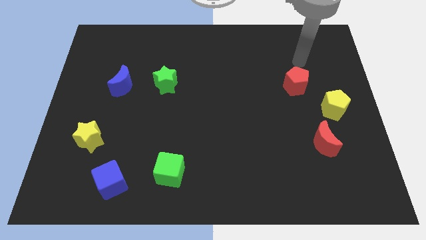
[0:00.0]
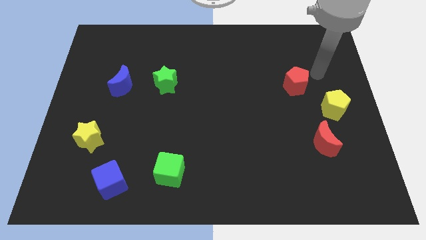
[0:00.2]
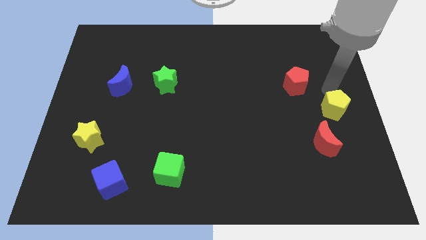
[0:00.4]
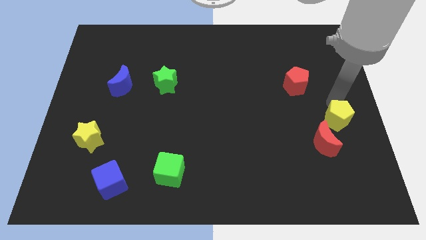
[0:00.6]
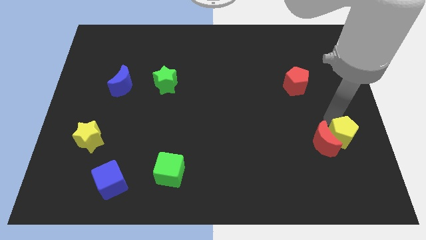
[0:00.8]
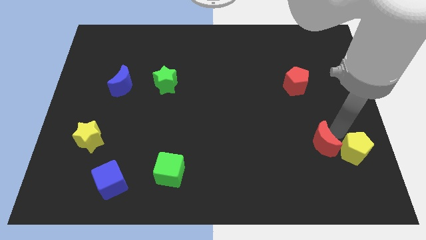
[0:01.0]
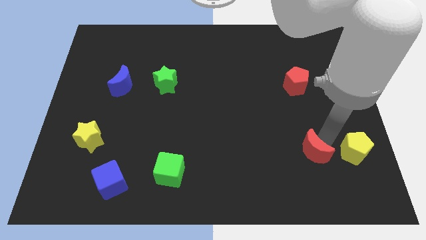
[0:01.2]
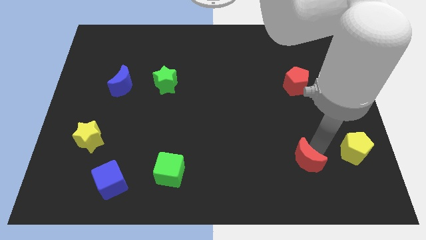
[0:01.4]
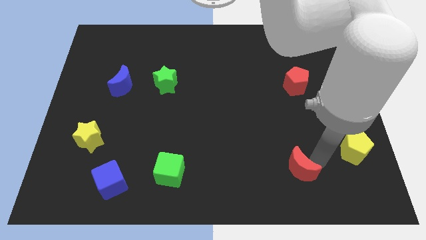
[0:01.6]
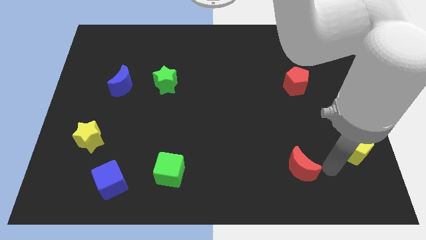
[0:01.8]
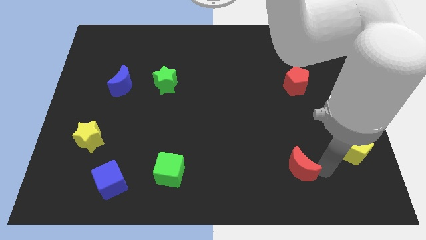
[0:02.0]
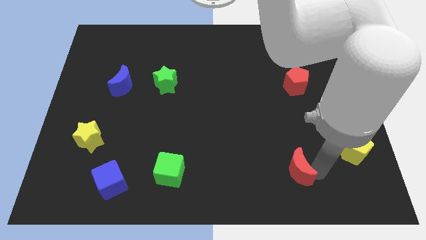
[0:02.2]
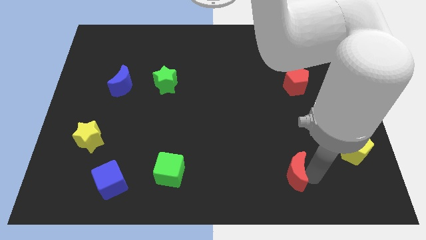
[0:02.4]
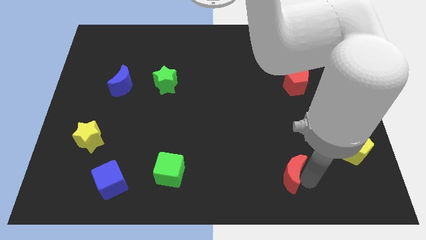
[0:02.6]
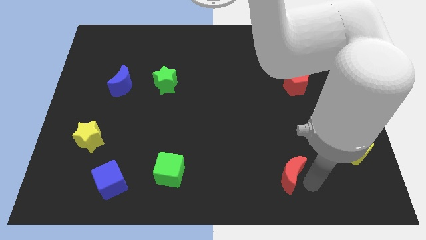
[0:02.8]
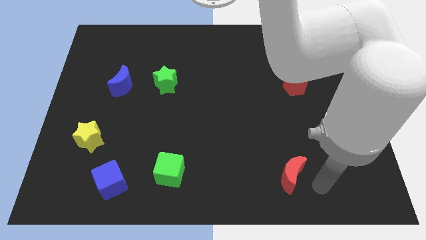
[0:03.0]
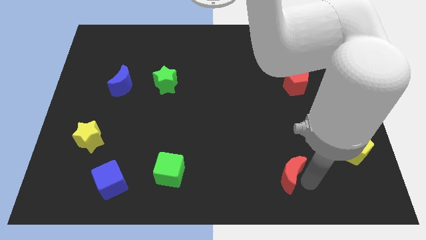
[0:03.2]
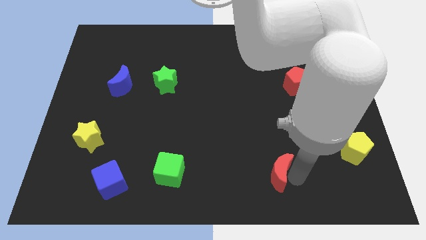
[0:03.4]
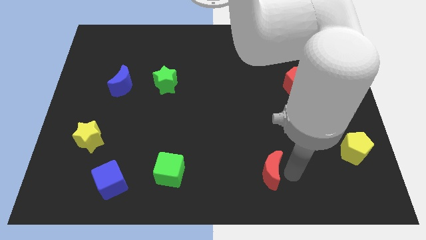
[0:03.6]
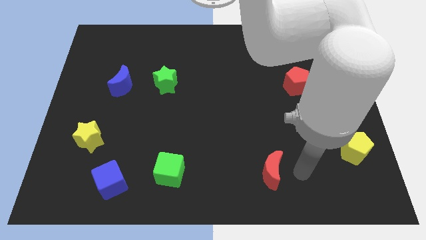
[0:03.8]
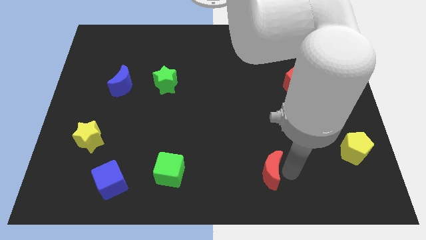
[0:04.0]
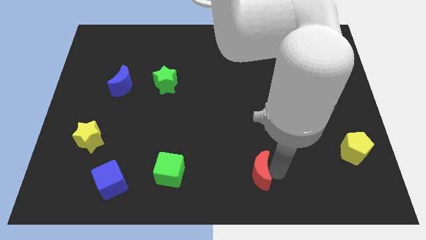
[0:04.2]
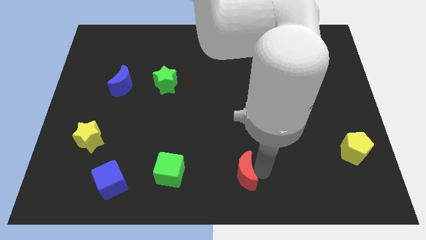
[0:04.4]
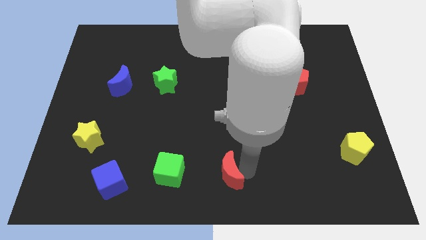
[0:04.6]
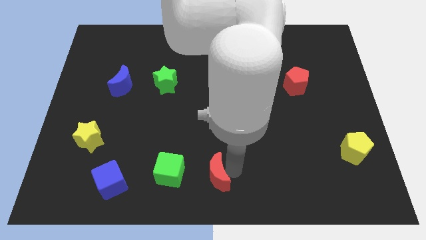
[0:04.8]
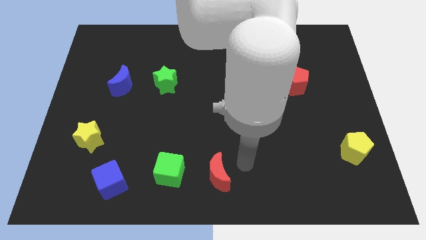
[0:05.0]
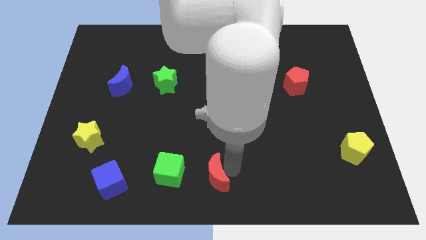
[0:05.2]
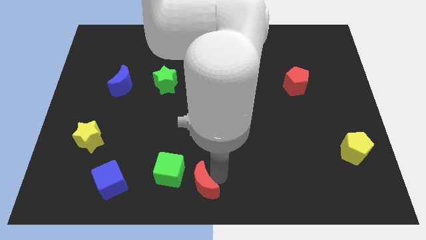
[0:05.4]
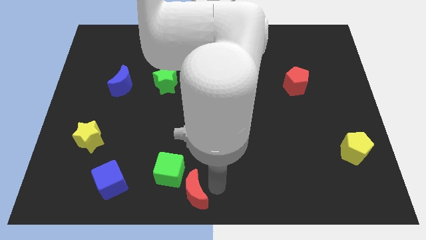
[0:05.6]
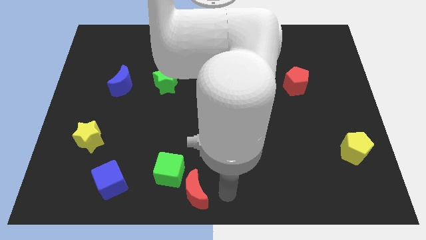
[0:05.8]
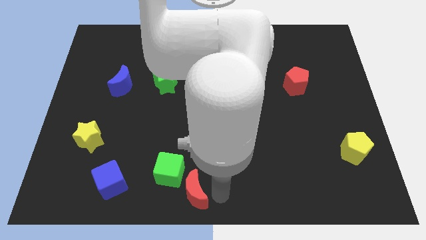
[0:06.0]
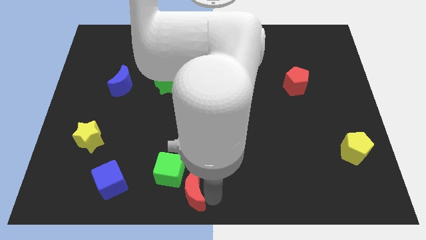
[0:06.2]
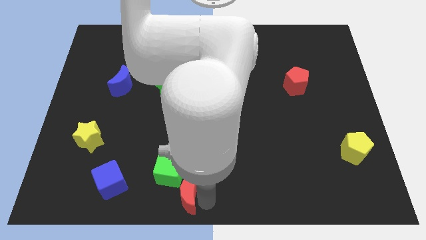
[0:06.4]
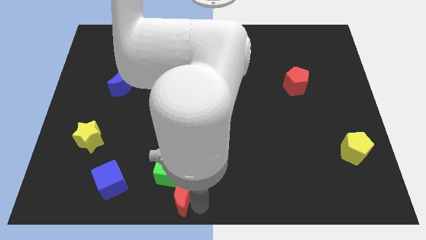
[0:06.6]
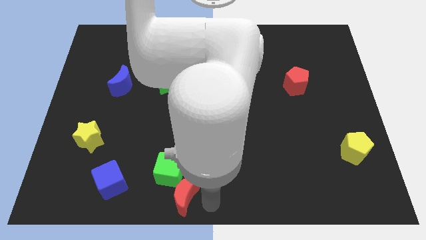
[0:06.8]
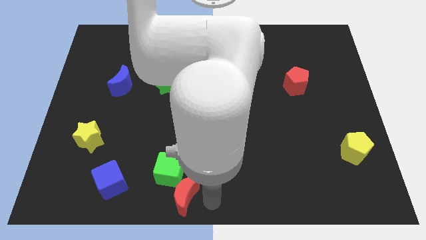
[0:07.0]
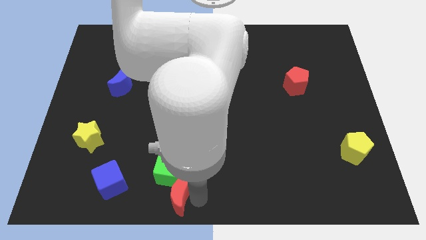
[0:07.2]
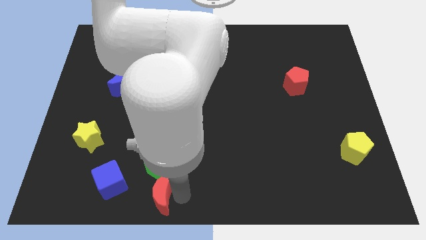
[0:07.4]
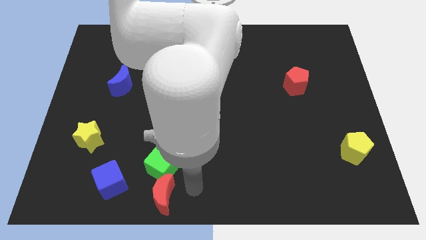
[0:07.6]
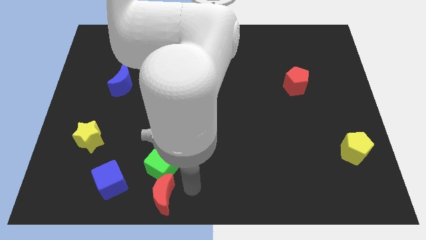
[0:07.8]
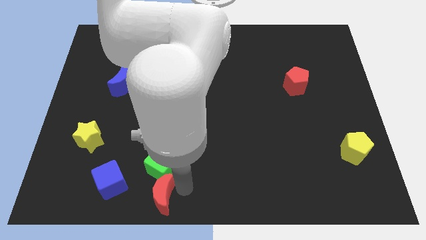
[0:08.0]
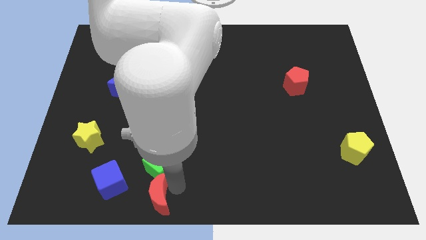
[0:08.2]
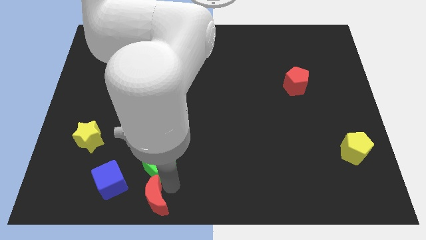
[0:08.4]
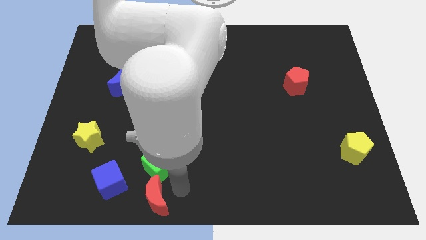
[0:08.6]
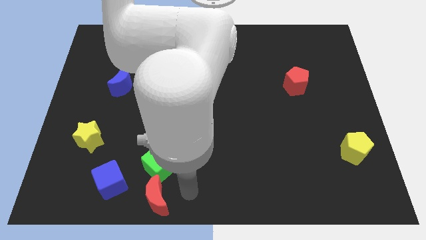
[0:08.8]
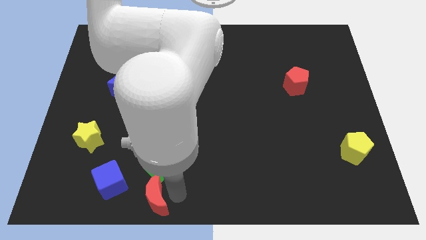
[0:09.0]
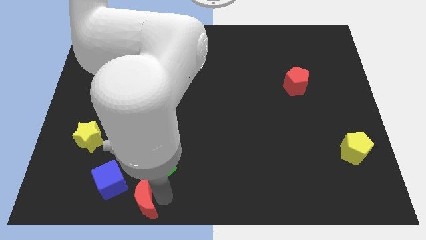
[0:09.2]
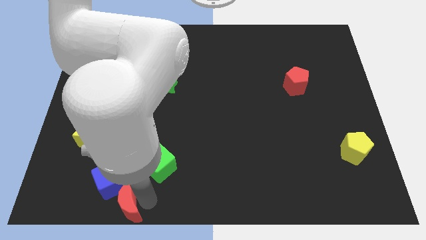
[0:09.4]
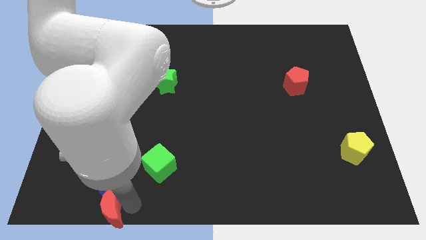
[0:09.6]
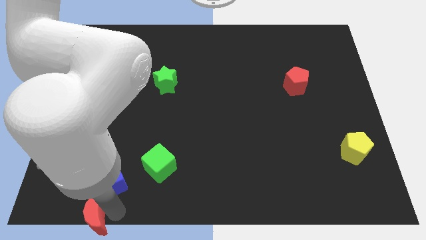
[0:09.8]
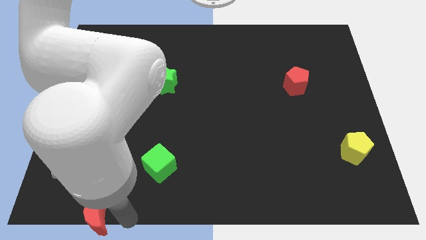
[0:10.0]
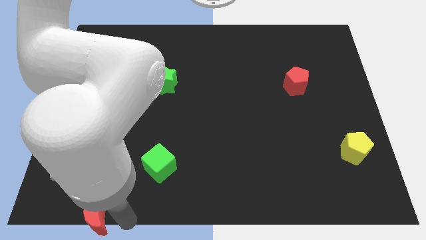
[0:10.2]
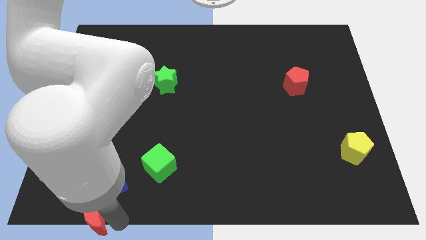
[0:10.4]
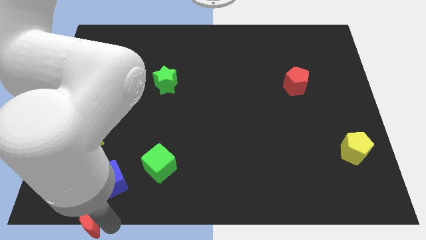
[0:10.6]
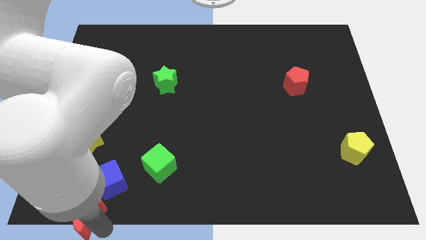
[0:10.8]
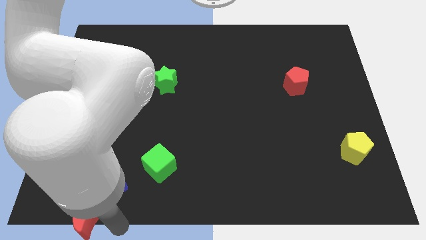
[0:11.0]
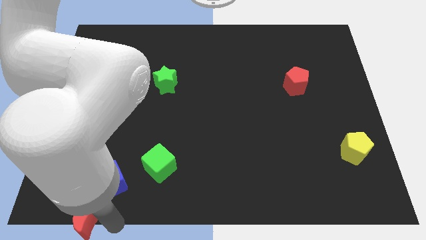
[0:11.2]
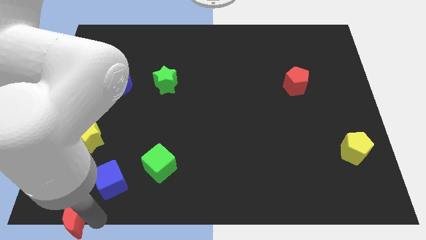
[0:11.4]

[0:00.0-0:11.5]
push the red moon to the lower left corner
